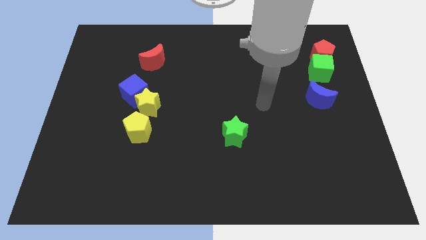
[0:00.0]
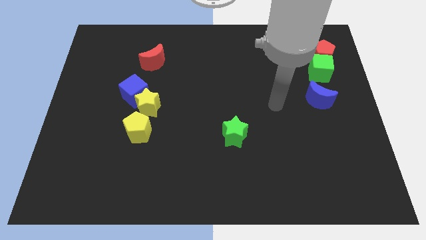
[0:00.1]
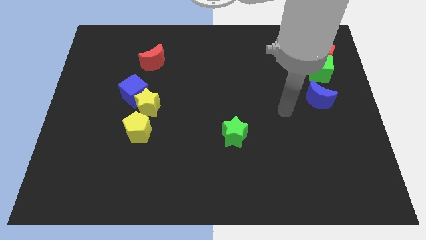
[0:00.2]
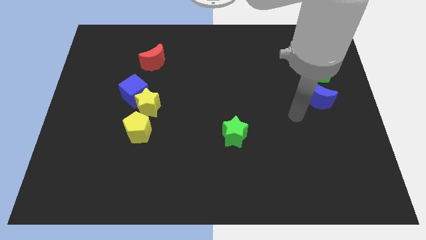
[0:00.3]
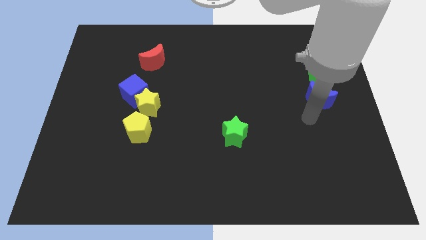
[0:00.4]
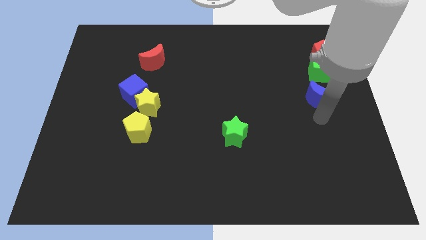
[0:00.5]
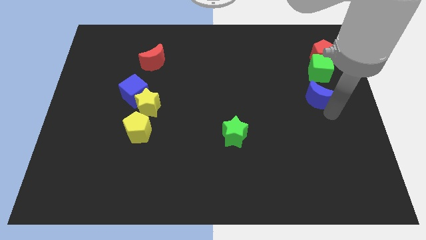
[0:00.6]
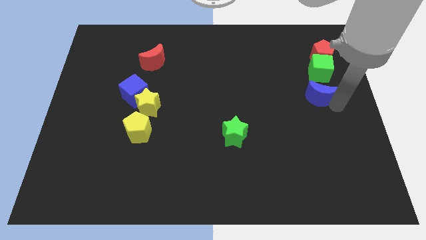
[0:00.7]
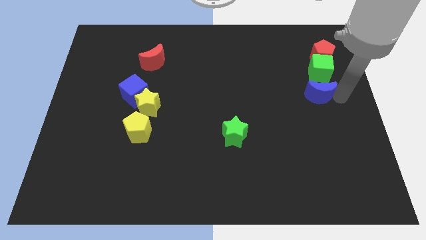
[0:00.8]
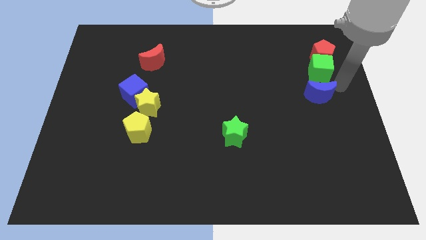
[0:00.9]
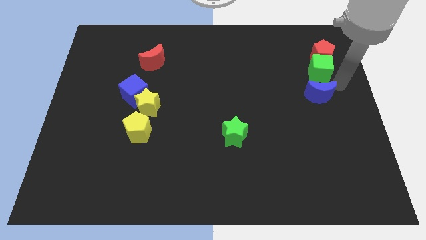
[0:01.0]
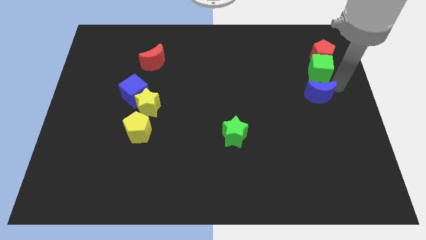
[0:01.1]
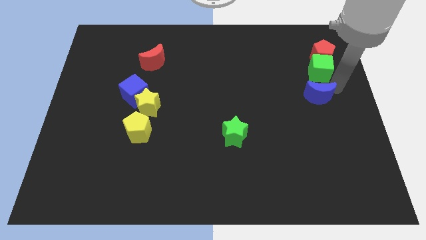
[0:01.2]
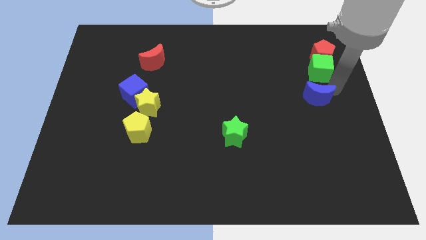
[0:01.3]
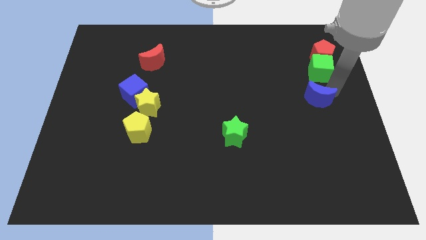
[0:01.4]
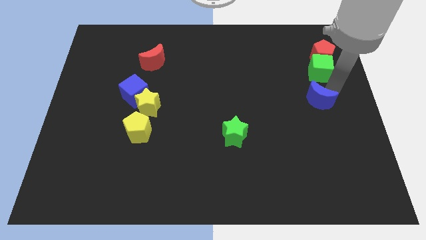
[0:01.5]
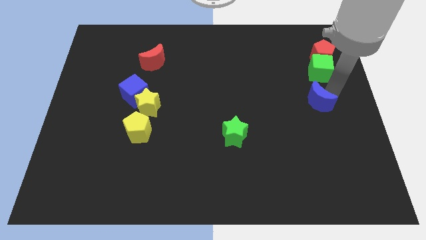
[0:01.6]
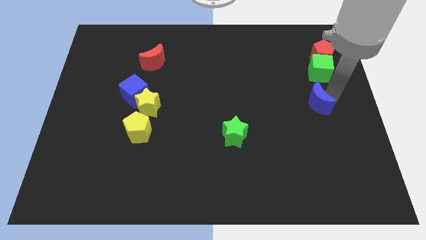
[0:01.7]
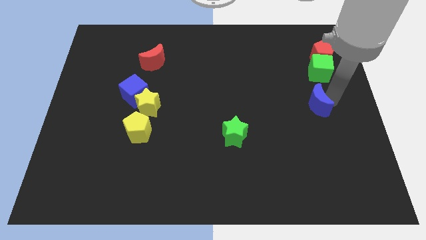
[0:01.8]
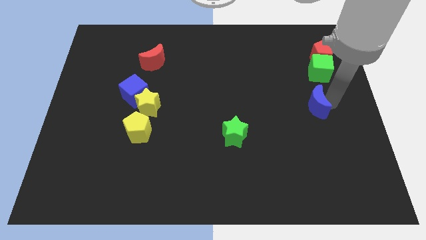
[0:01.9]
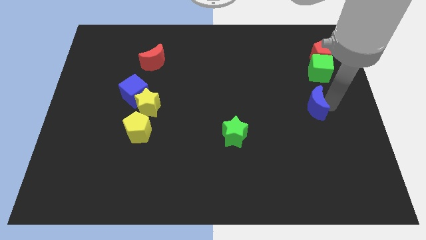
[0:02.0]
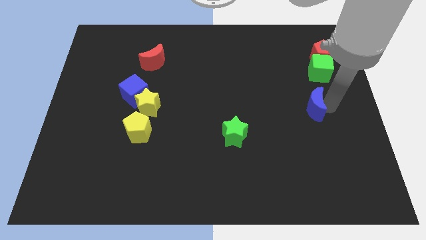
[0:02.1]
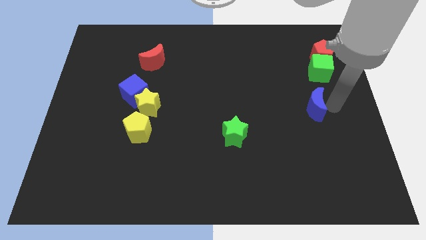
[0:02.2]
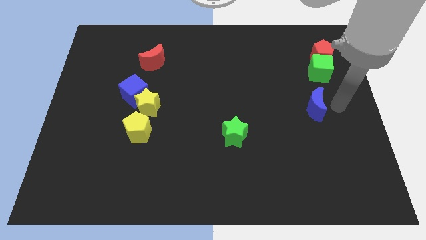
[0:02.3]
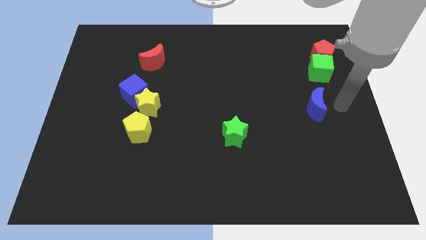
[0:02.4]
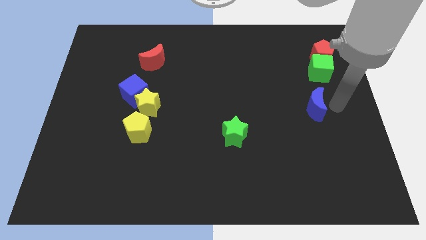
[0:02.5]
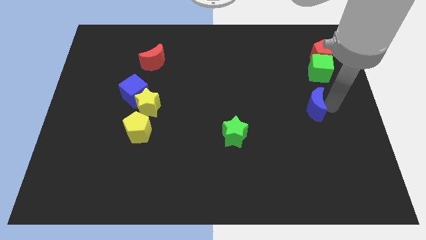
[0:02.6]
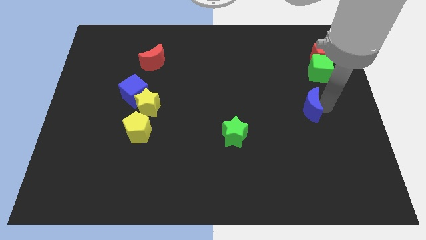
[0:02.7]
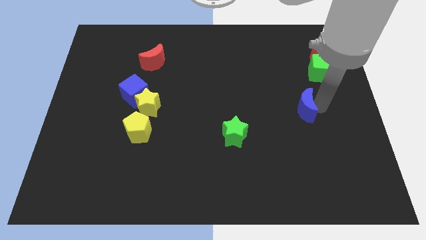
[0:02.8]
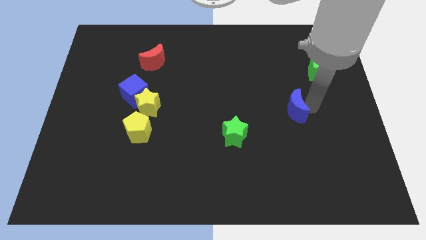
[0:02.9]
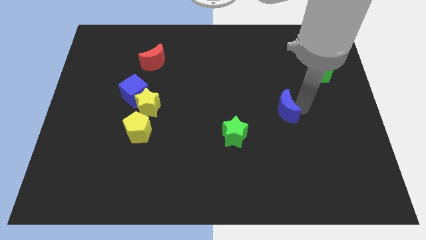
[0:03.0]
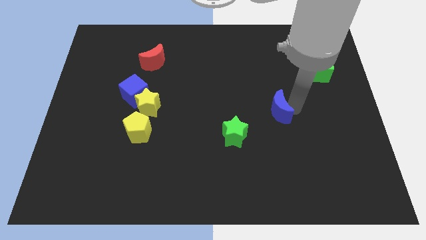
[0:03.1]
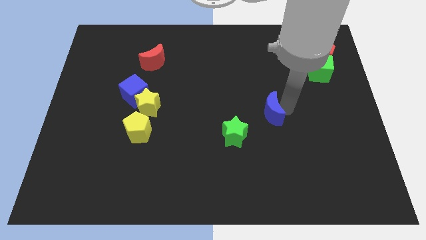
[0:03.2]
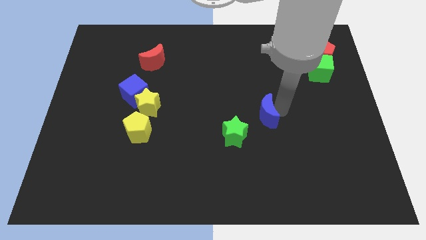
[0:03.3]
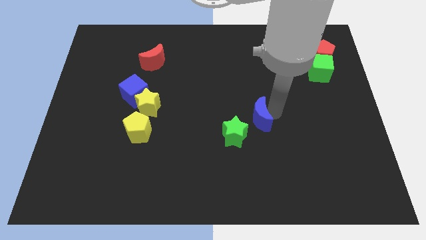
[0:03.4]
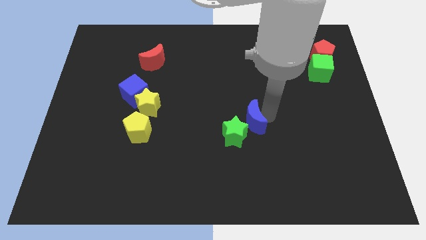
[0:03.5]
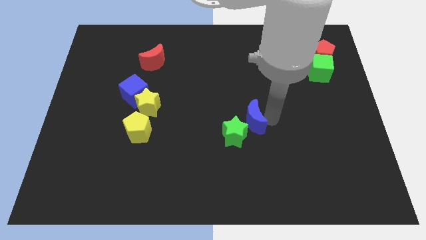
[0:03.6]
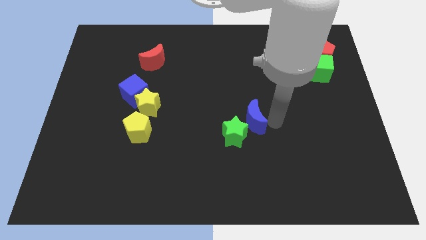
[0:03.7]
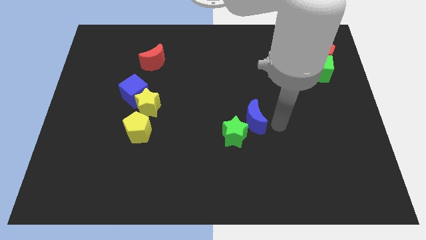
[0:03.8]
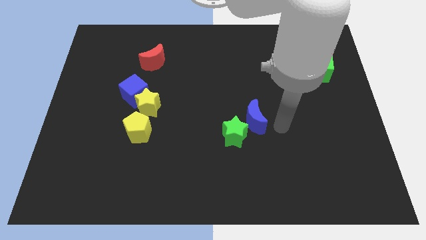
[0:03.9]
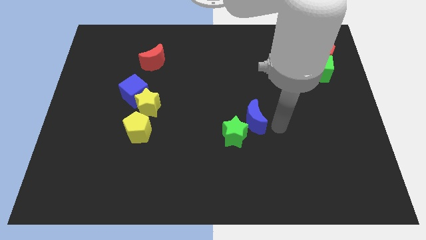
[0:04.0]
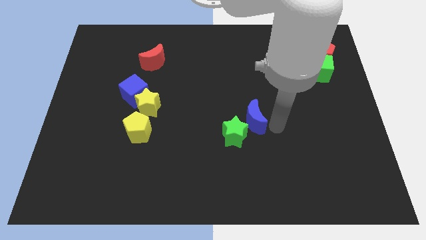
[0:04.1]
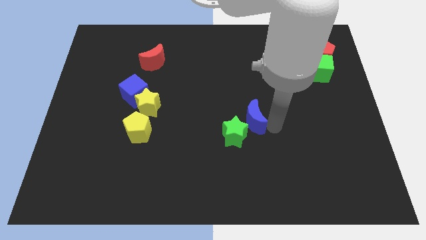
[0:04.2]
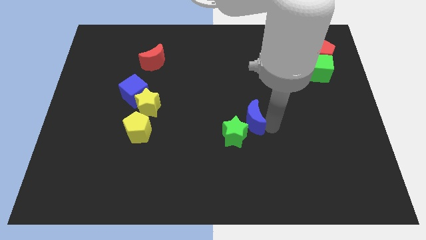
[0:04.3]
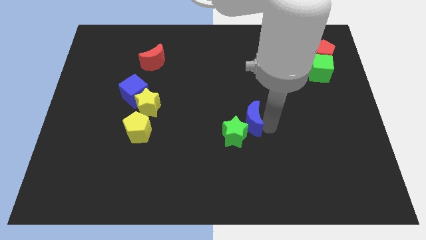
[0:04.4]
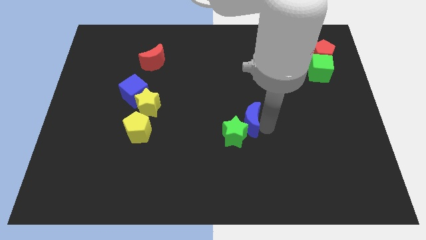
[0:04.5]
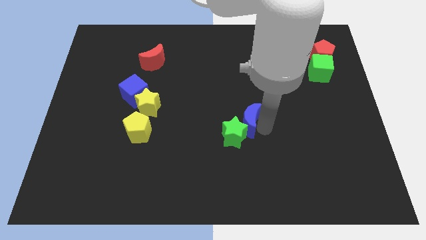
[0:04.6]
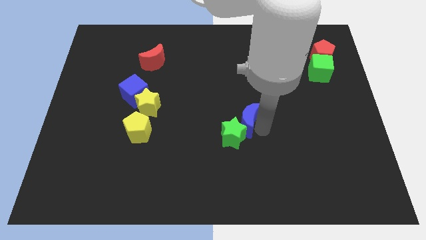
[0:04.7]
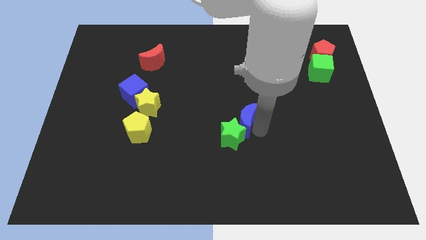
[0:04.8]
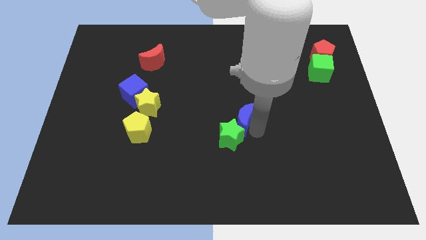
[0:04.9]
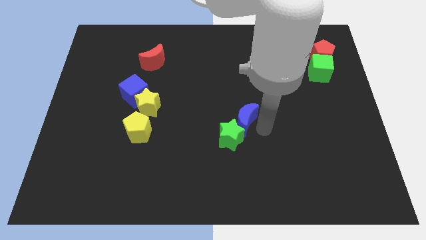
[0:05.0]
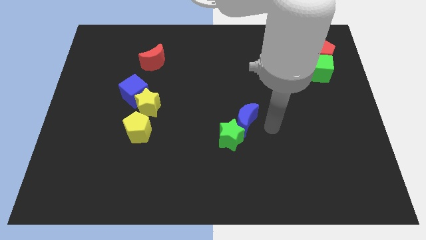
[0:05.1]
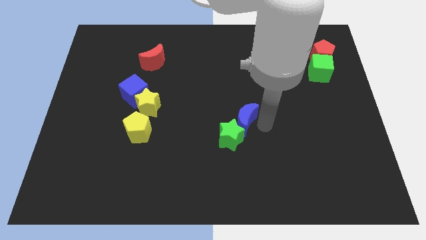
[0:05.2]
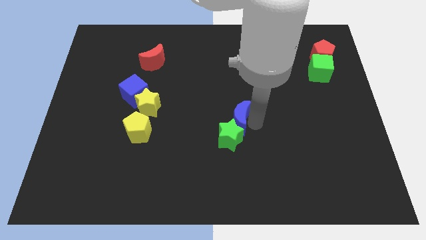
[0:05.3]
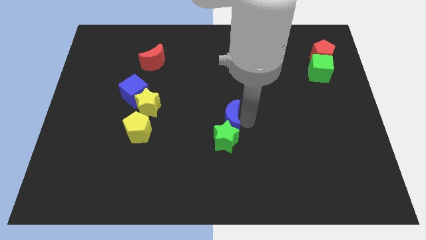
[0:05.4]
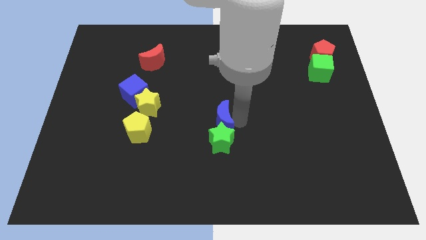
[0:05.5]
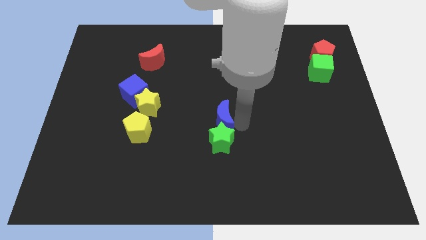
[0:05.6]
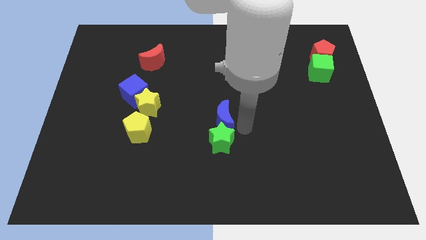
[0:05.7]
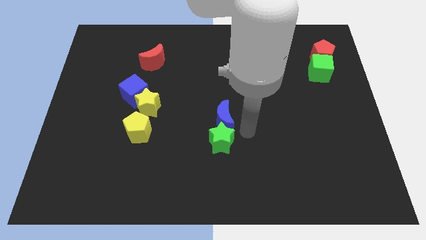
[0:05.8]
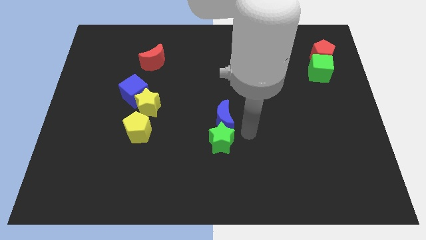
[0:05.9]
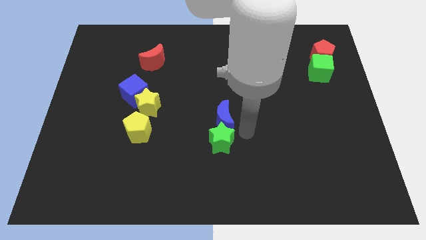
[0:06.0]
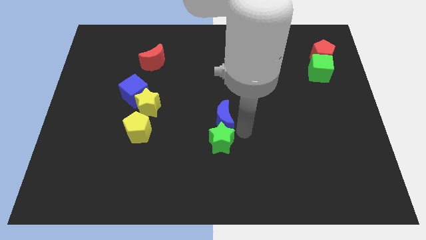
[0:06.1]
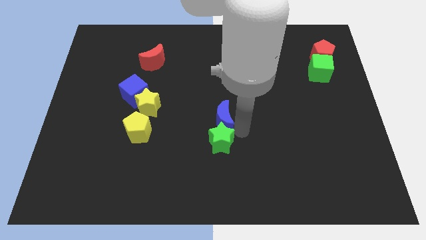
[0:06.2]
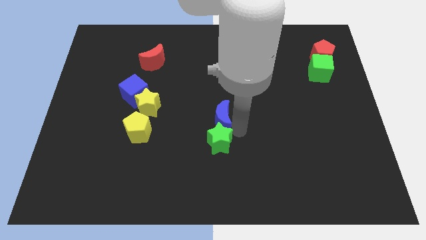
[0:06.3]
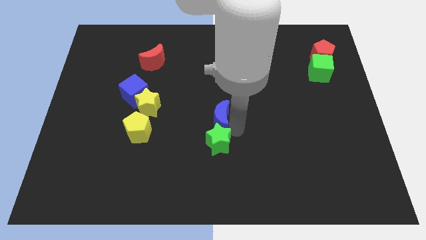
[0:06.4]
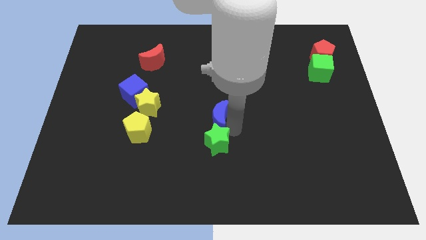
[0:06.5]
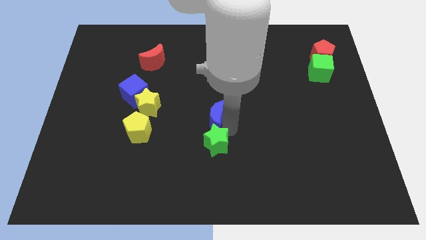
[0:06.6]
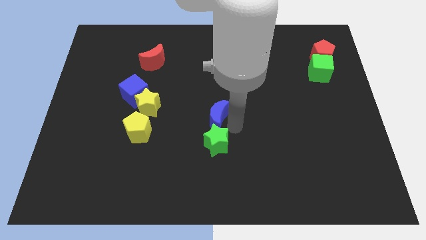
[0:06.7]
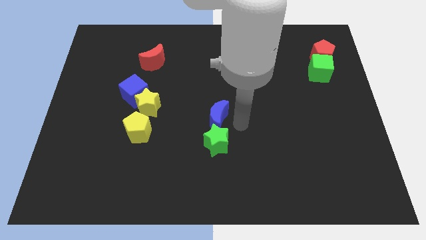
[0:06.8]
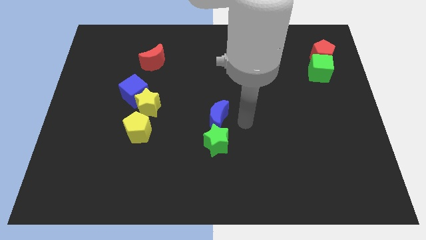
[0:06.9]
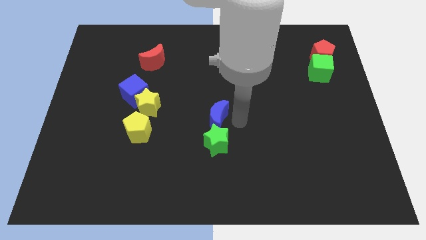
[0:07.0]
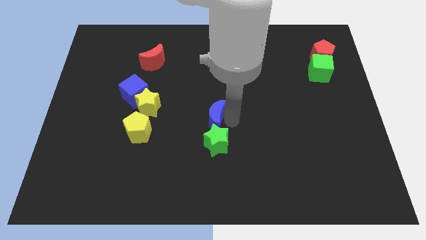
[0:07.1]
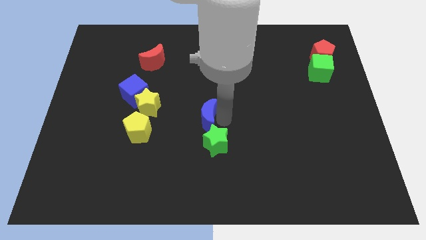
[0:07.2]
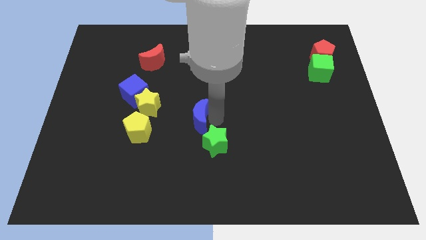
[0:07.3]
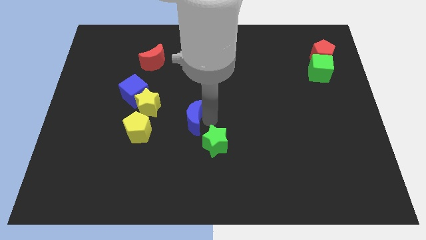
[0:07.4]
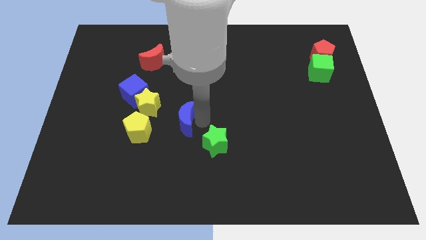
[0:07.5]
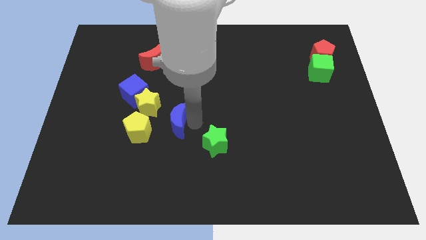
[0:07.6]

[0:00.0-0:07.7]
slide the blue moon diagonally up and to the right of the yellow pentagon

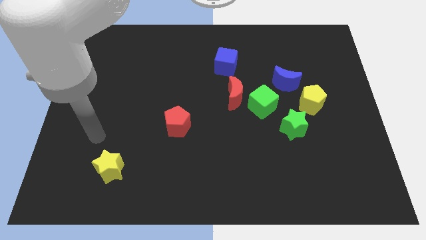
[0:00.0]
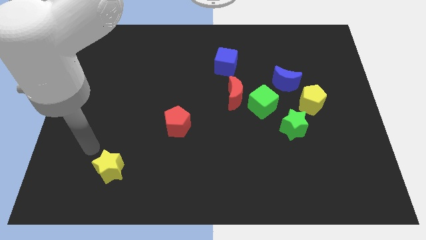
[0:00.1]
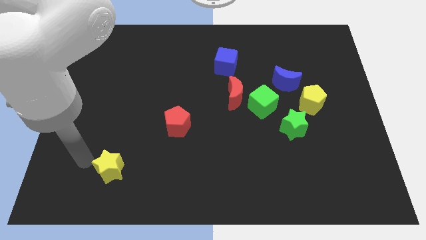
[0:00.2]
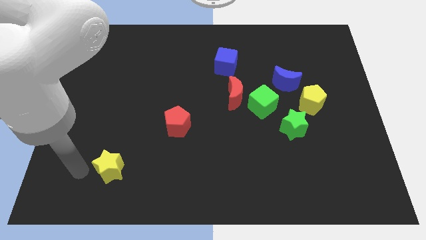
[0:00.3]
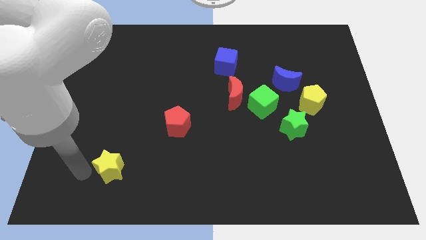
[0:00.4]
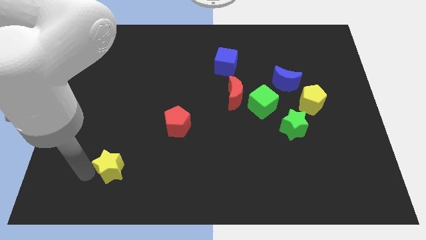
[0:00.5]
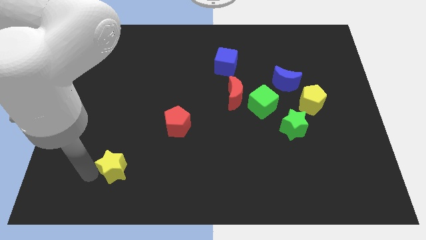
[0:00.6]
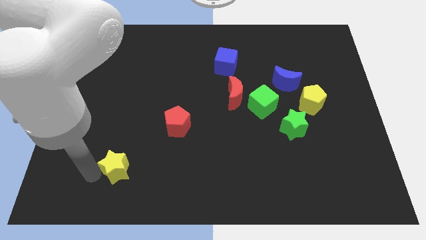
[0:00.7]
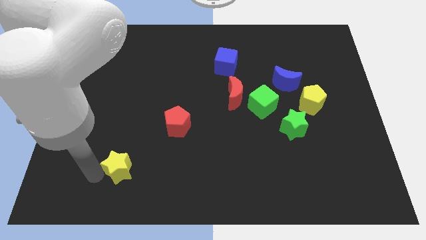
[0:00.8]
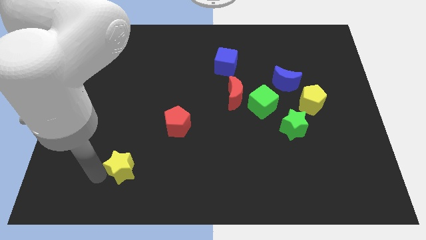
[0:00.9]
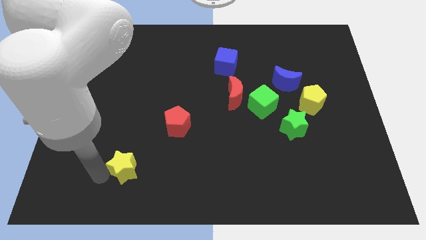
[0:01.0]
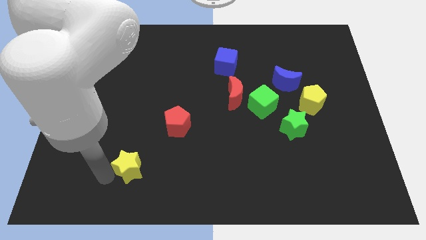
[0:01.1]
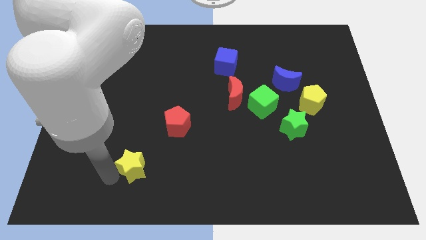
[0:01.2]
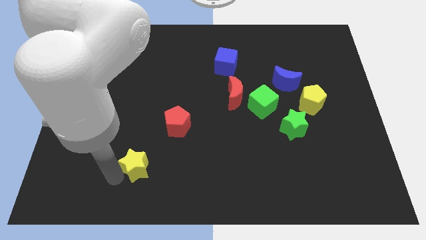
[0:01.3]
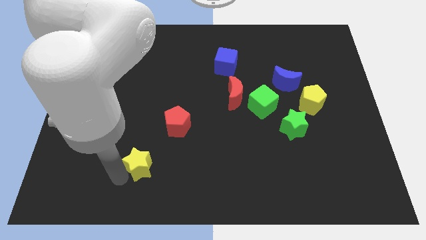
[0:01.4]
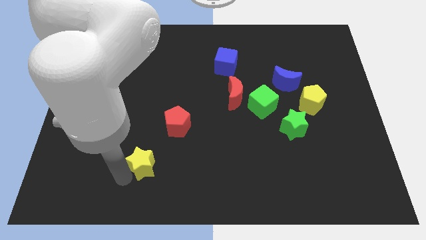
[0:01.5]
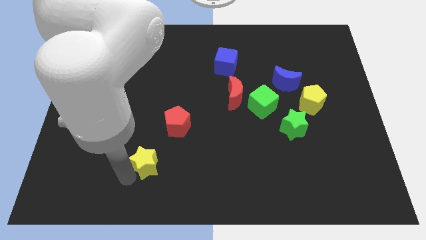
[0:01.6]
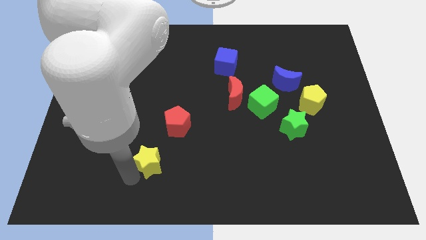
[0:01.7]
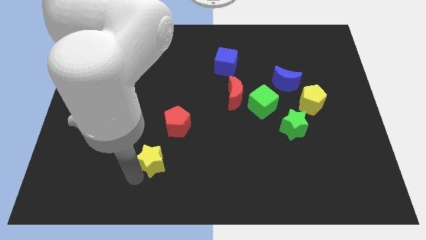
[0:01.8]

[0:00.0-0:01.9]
put the yellow star to the bottom of the red pentagon
